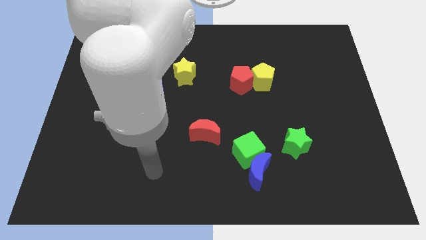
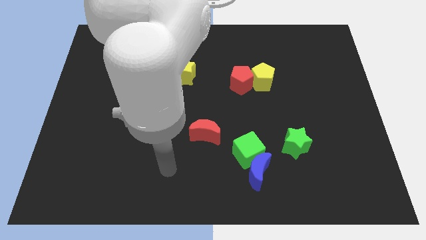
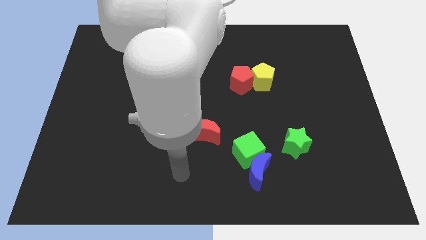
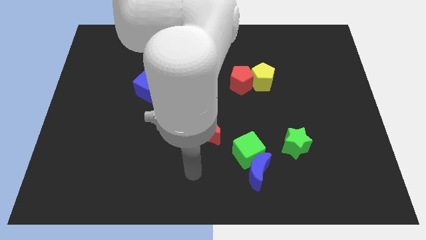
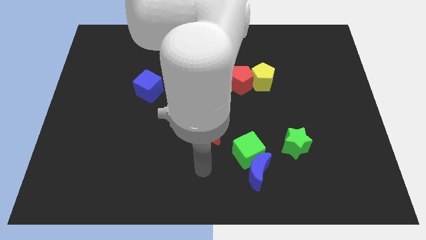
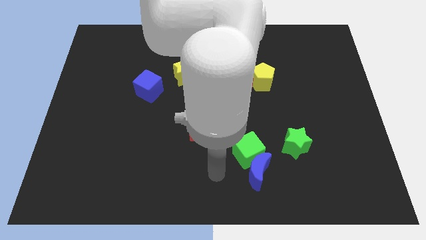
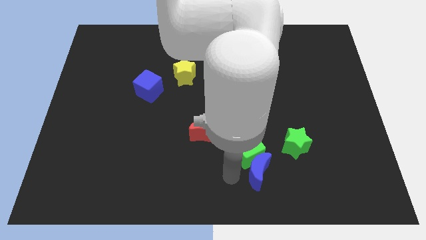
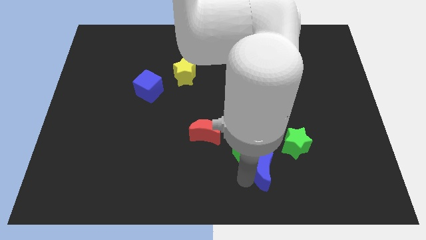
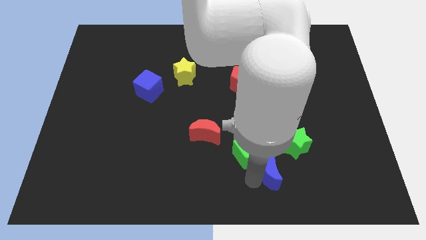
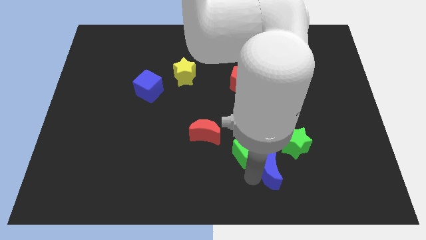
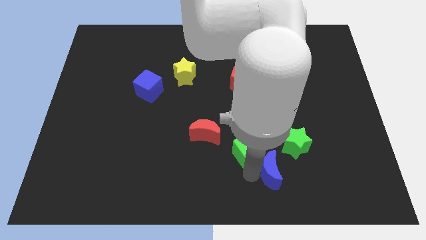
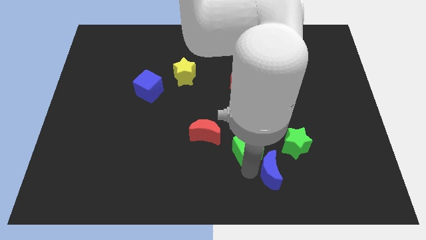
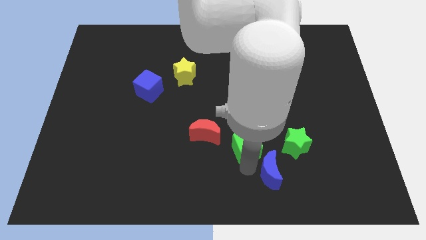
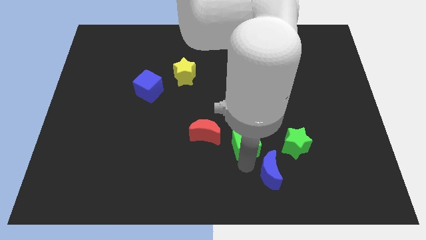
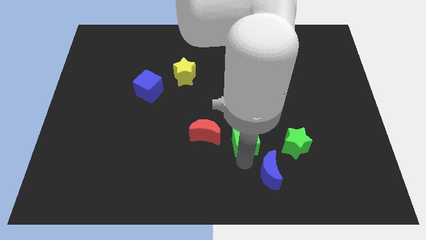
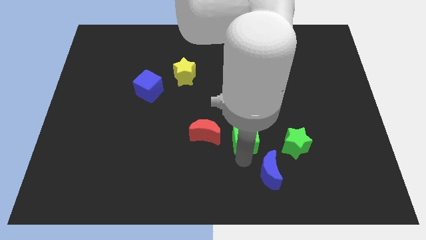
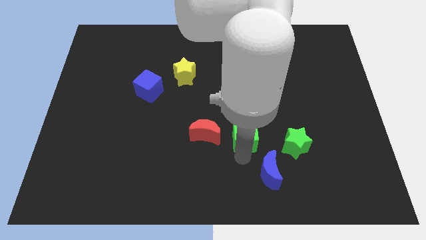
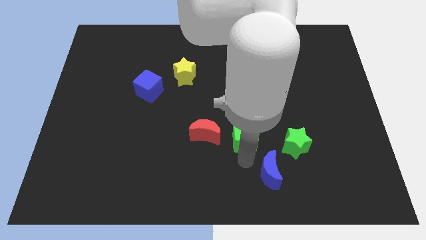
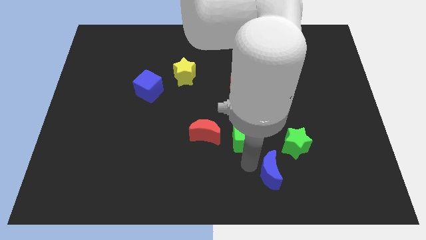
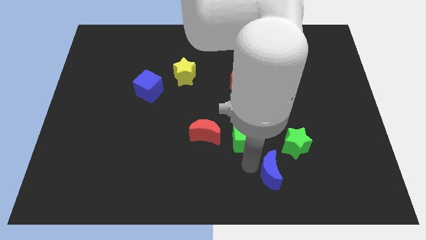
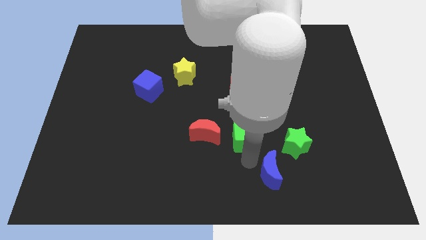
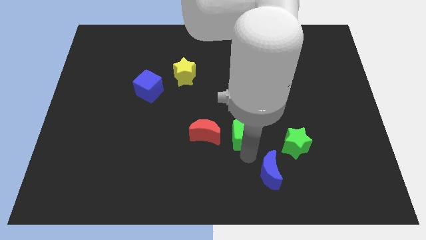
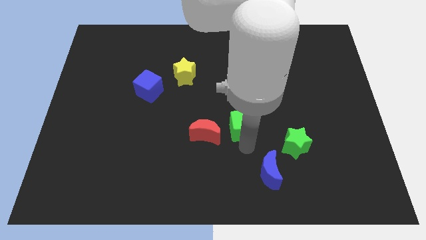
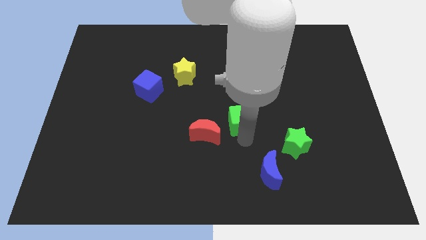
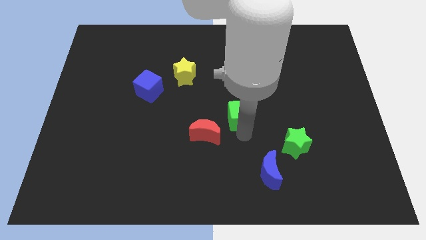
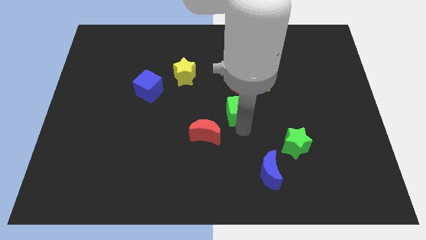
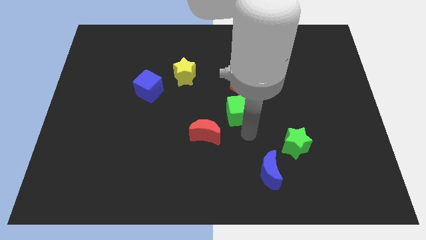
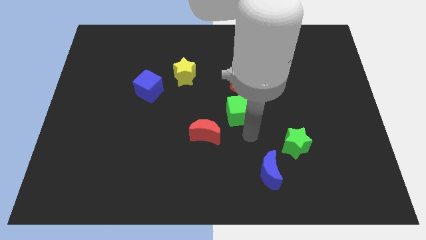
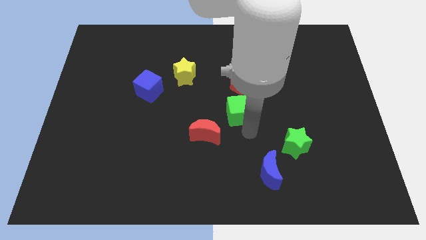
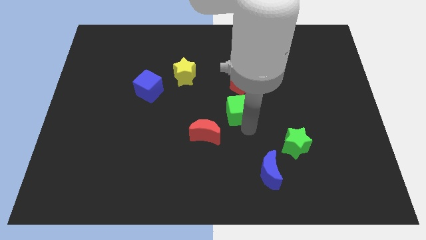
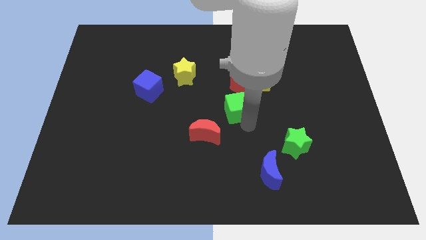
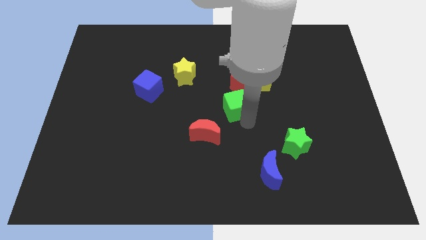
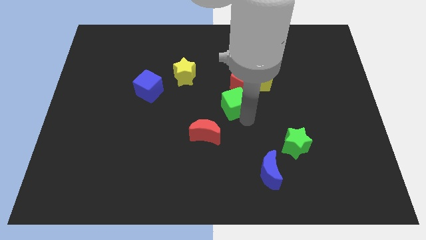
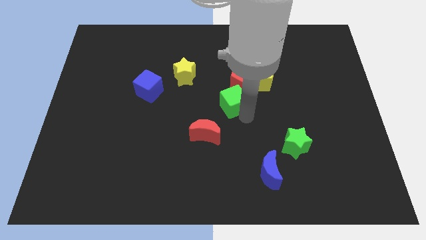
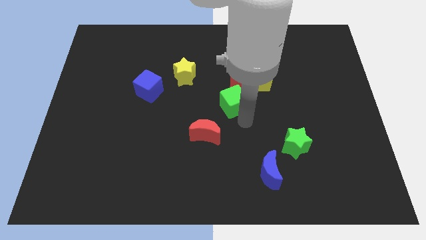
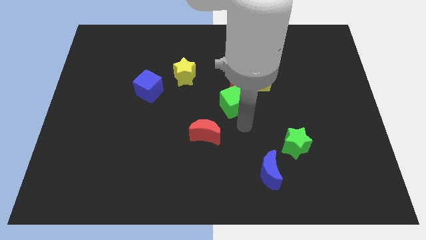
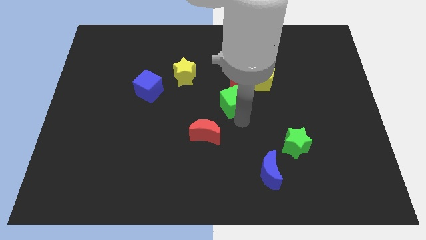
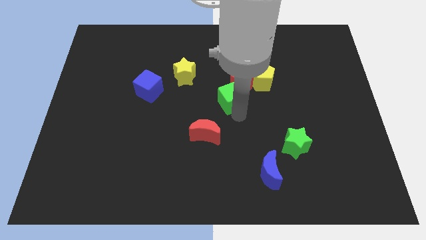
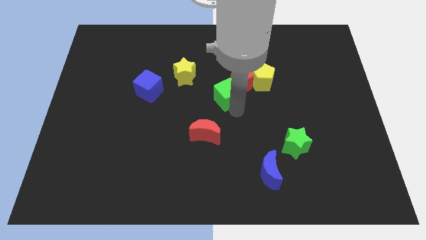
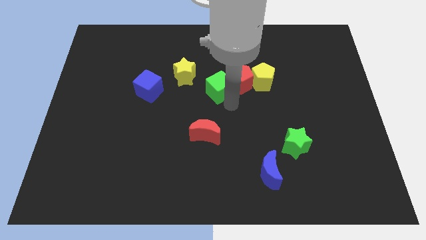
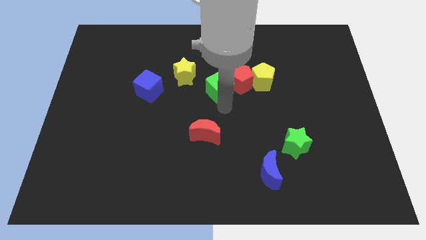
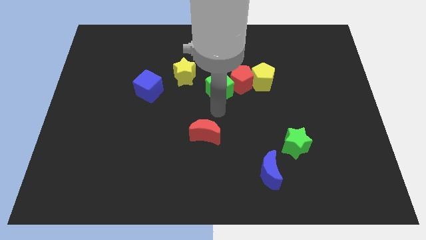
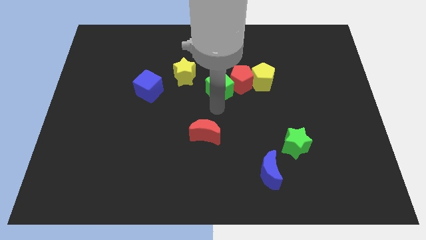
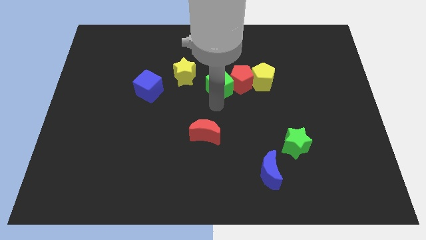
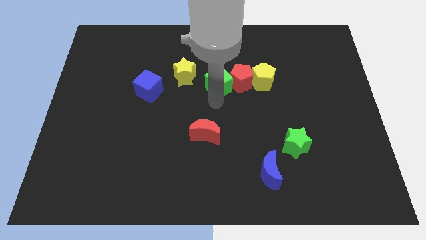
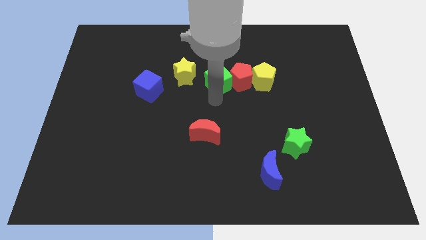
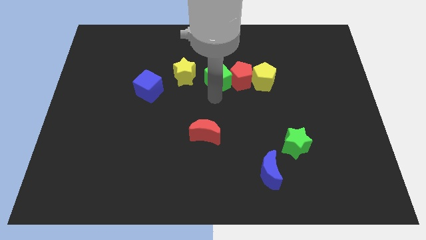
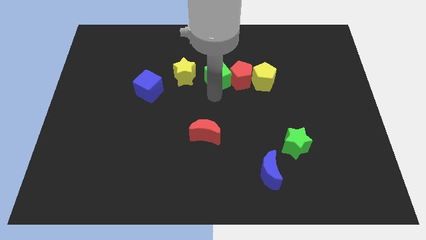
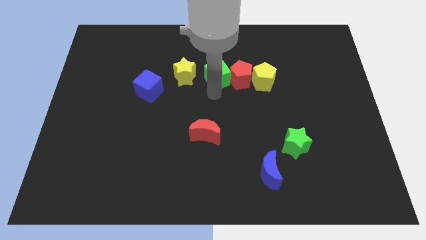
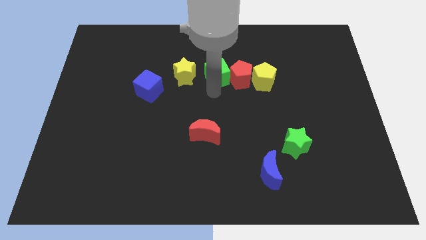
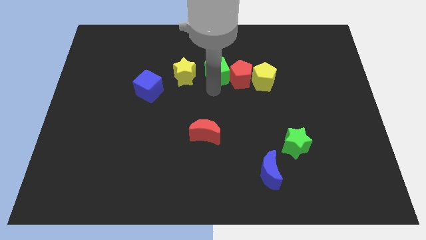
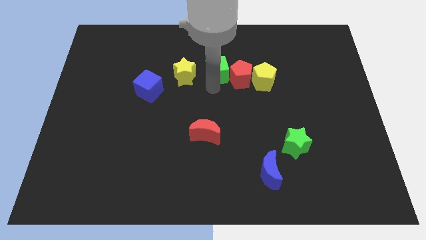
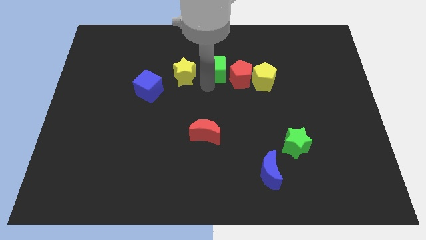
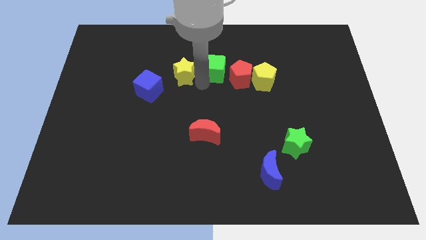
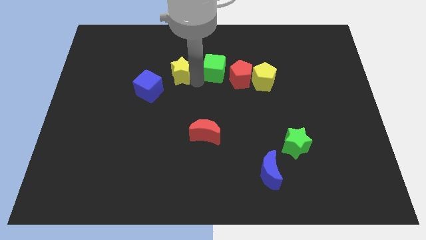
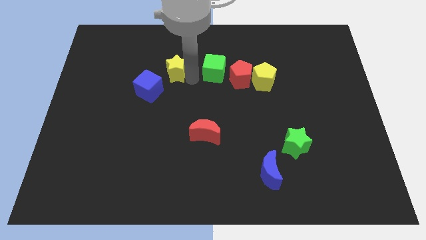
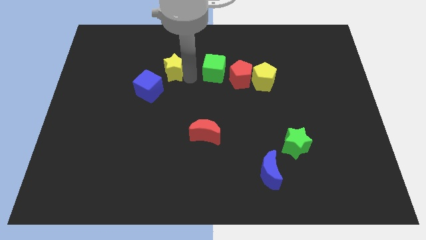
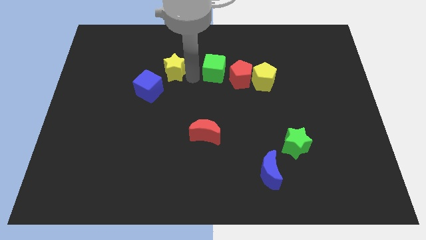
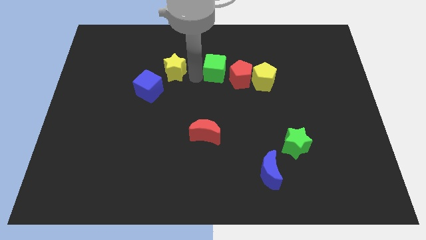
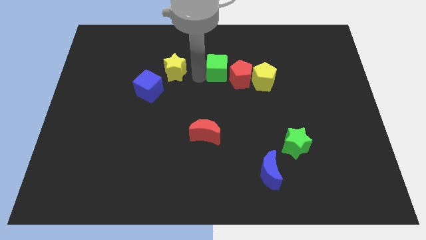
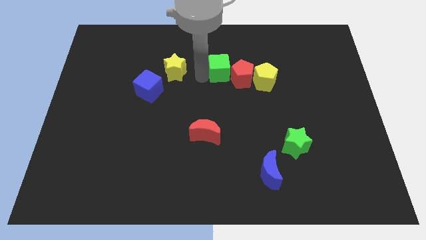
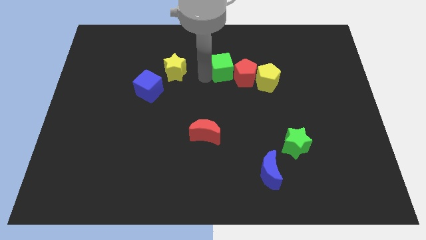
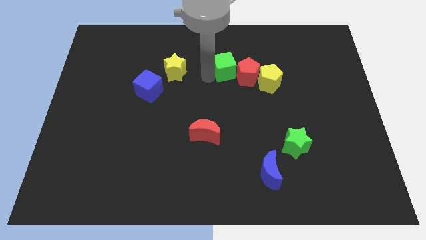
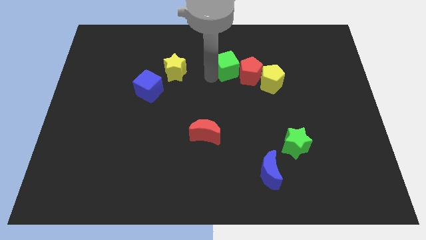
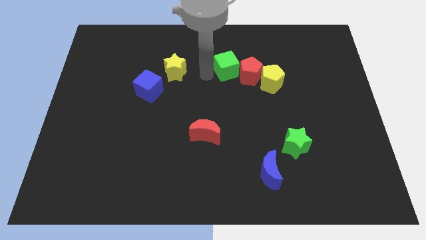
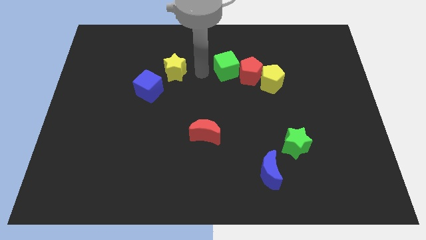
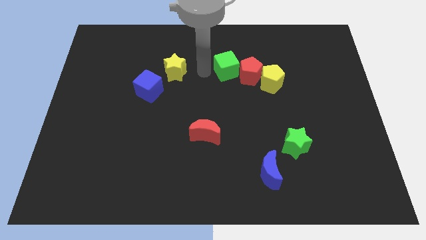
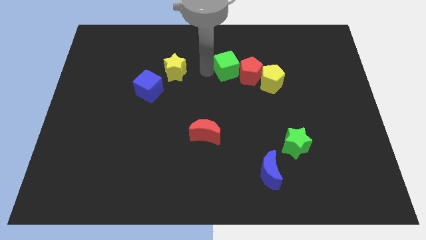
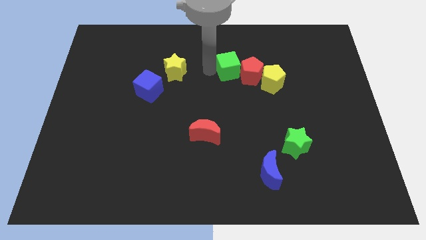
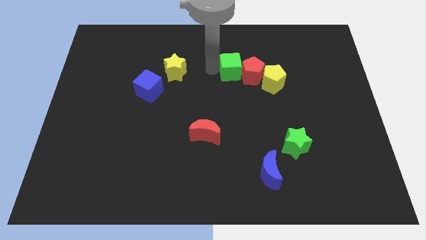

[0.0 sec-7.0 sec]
move the green cube diagonally up and to the left of the yellow pentagon
